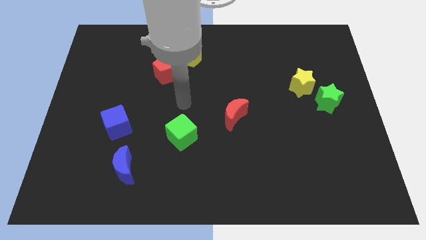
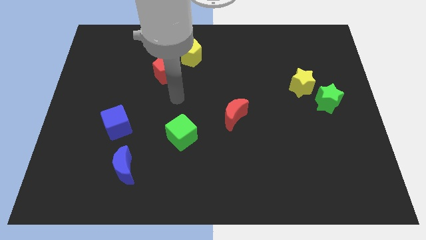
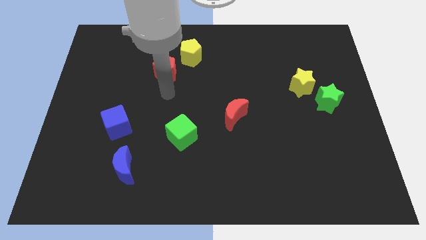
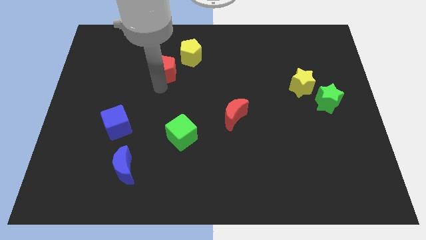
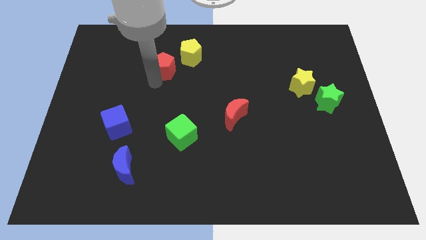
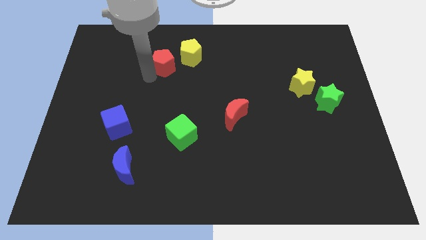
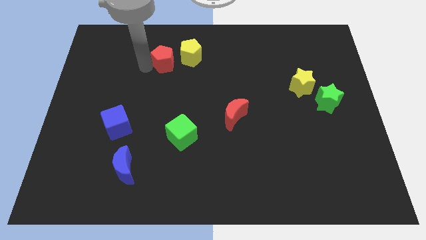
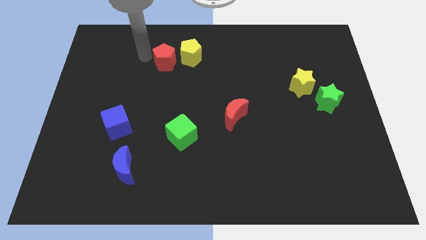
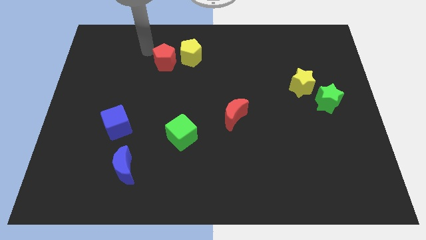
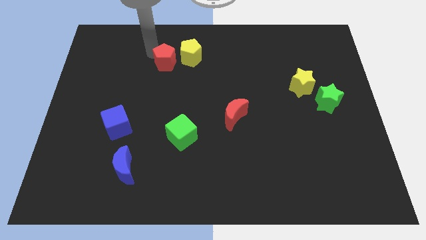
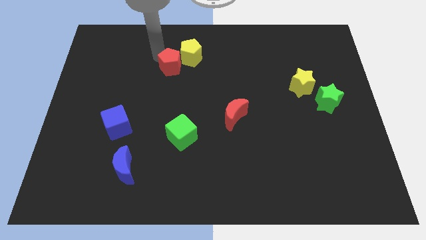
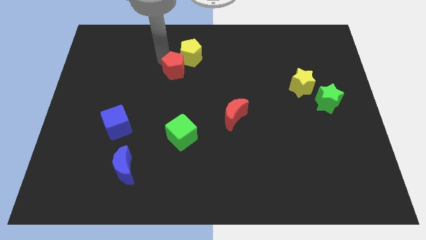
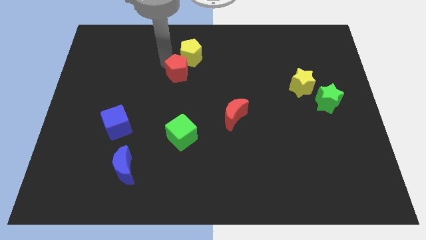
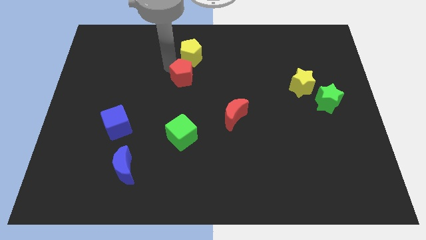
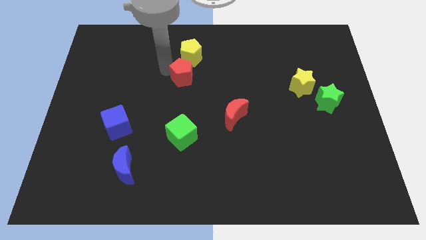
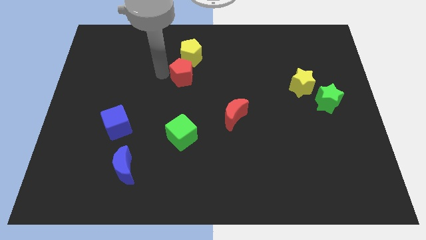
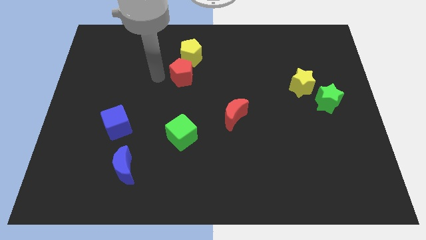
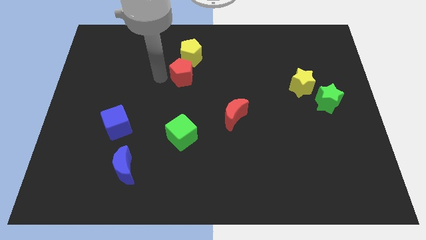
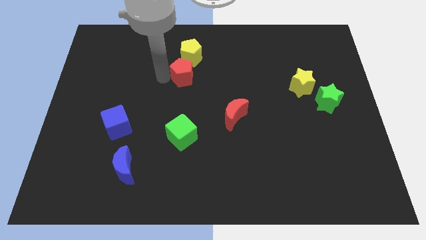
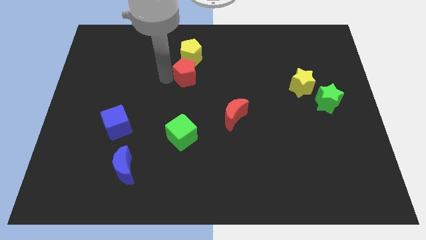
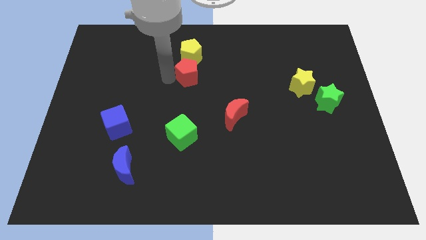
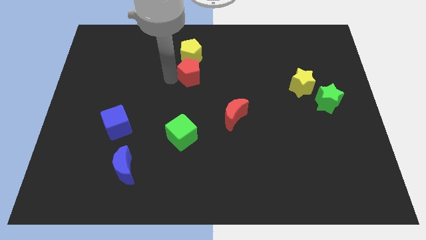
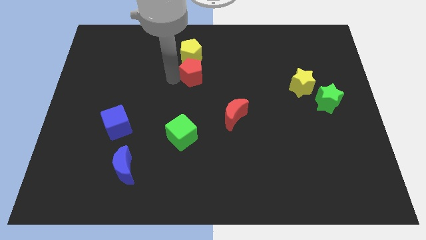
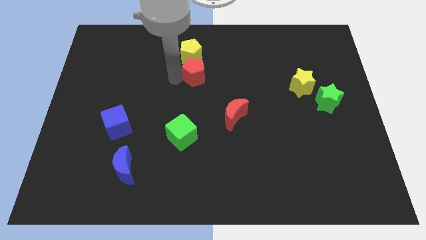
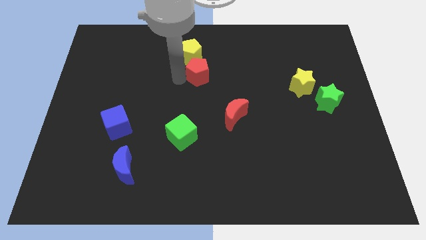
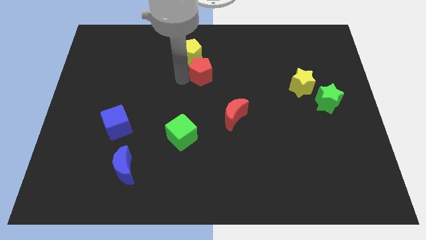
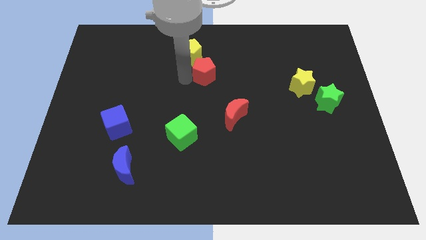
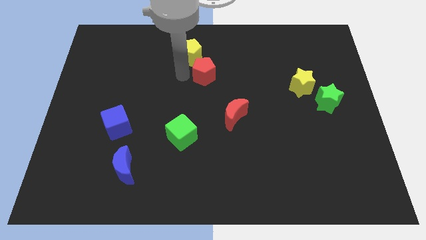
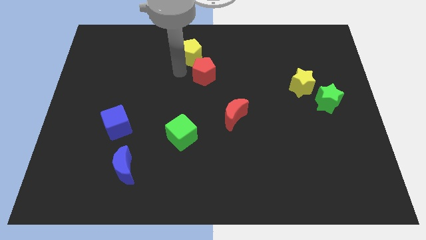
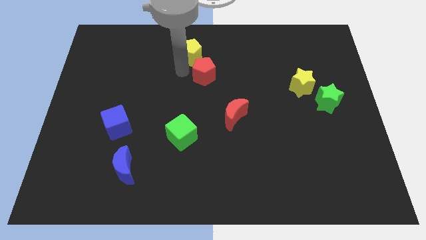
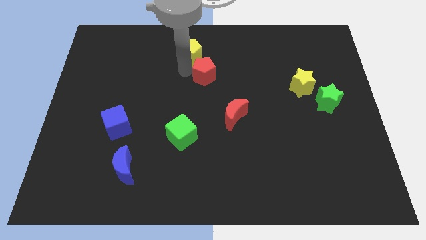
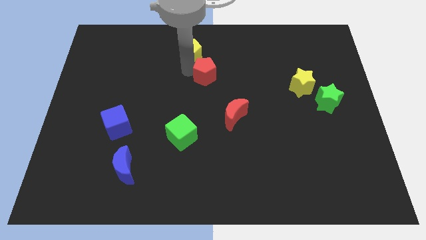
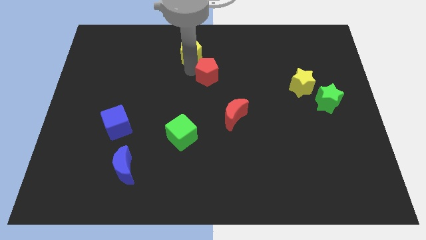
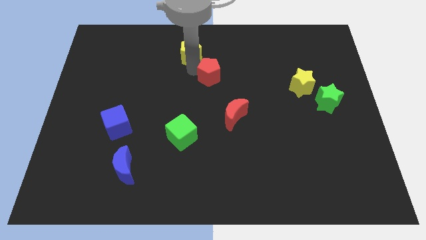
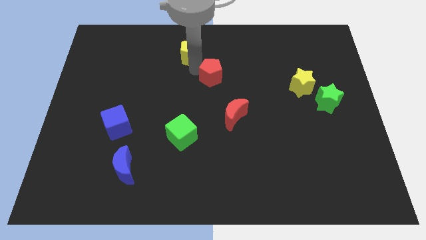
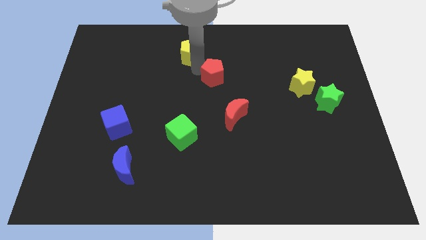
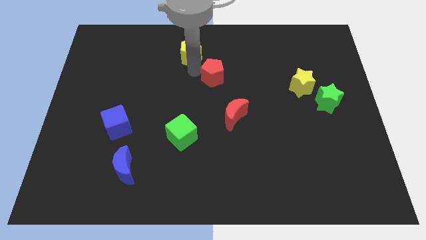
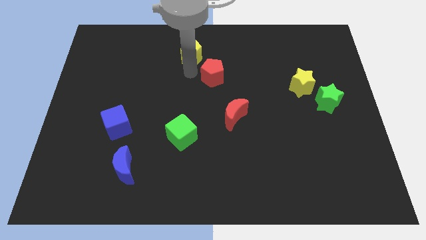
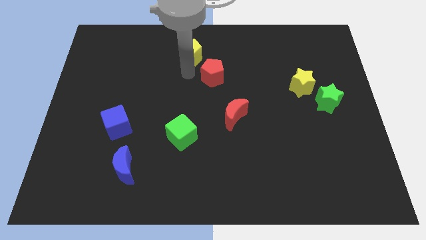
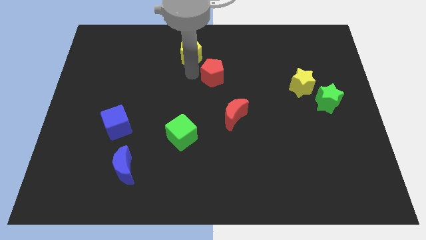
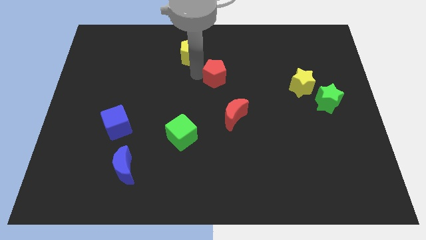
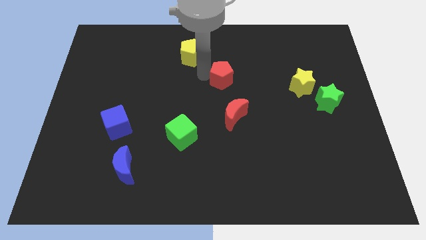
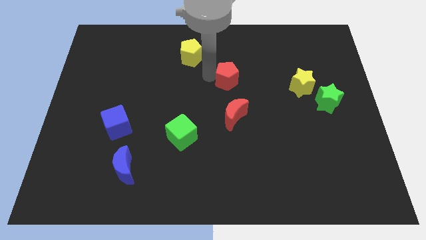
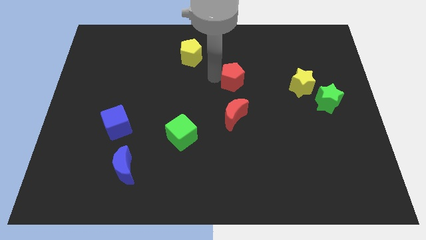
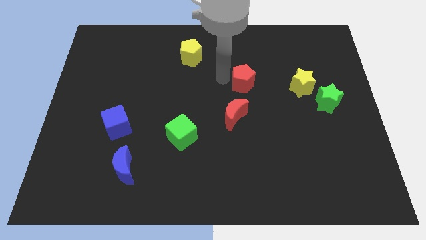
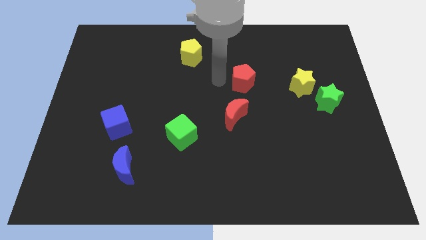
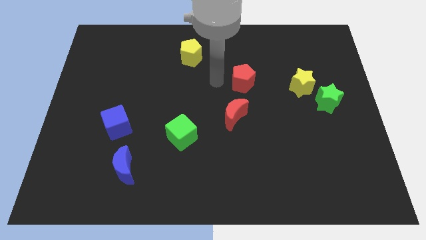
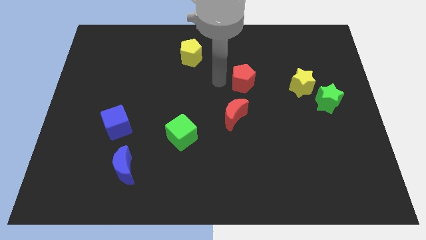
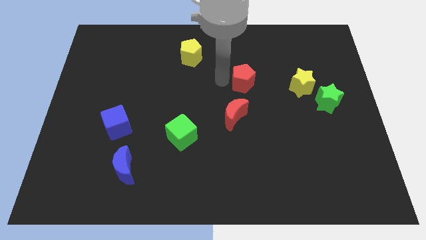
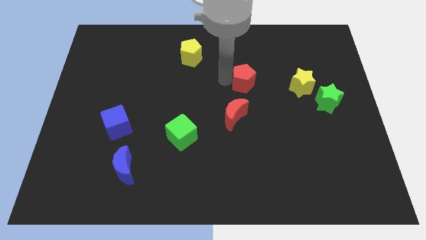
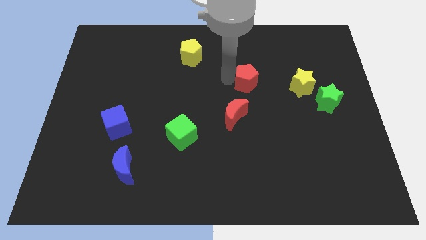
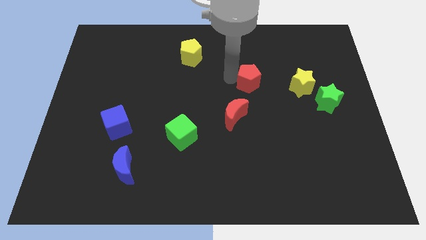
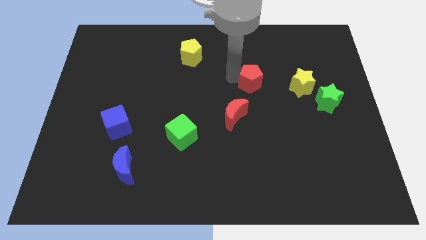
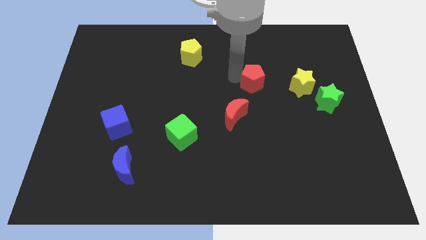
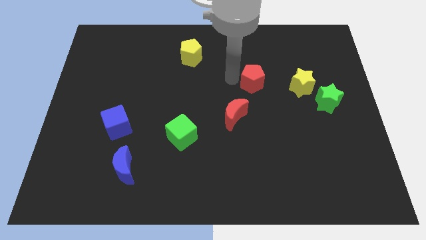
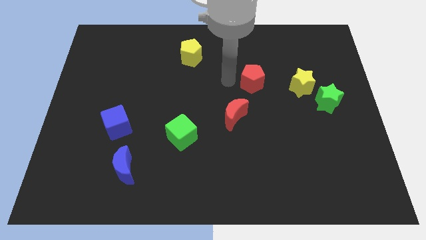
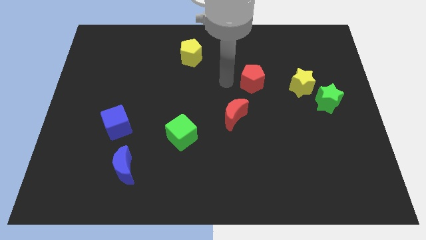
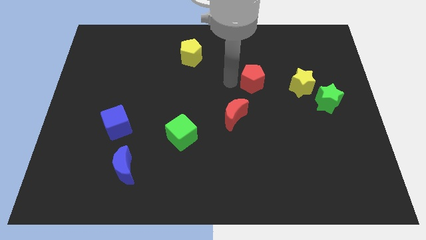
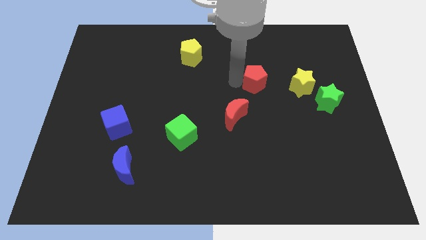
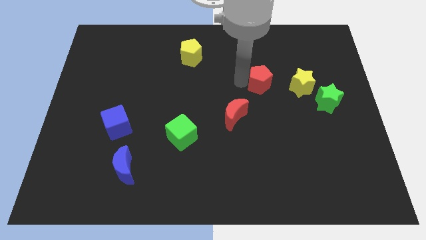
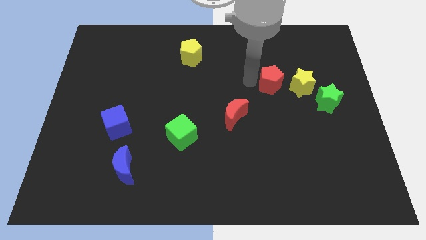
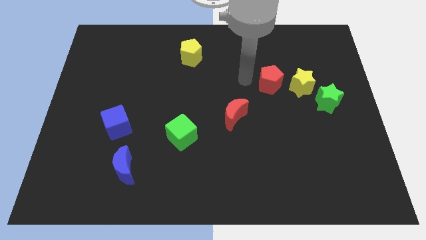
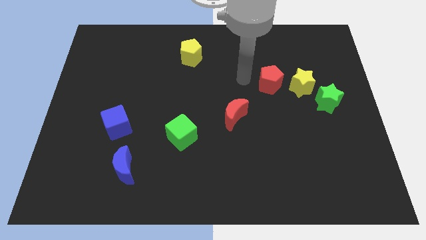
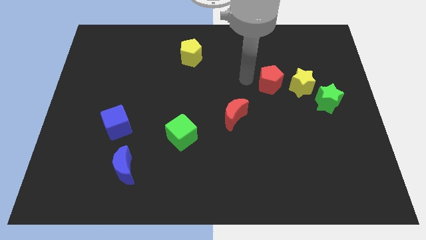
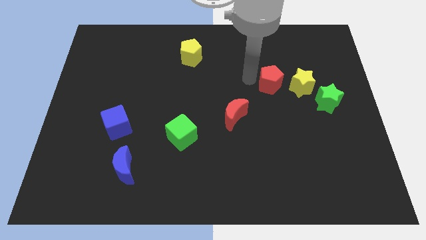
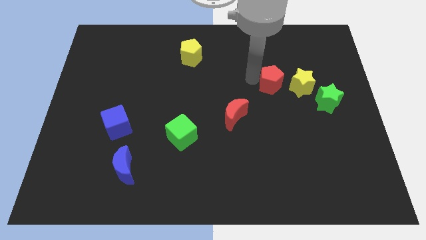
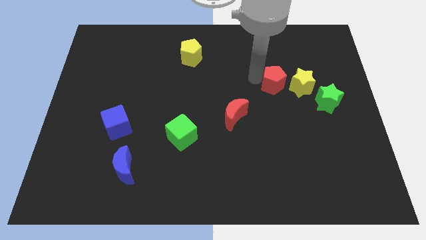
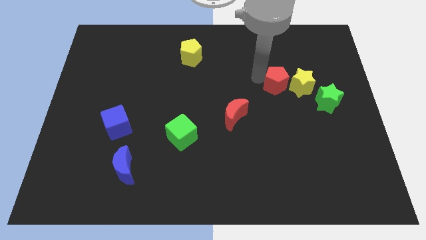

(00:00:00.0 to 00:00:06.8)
push the red pentagon next to the yellow star
